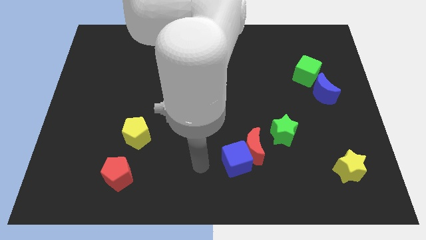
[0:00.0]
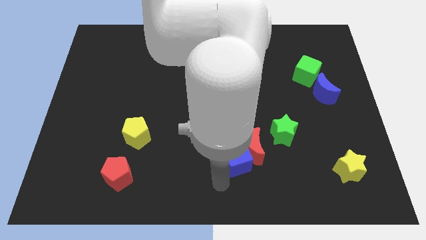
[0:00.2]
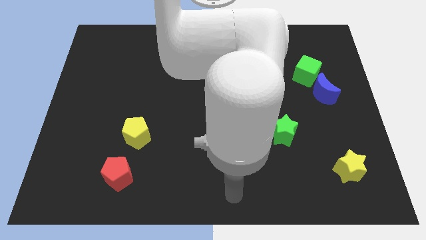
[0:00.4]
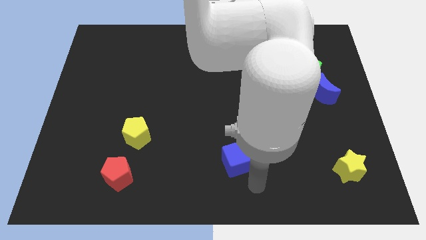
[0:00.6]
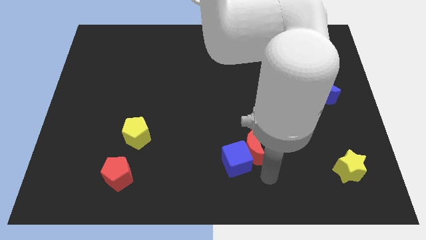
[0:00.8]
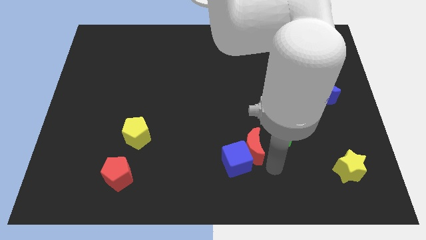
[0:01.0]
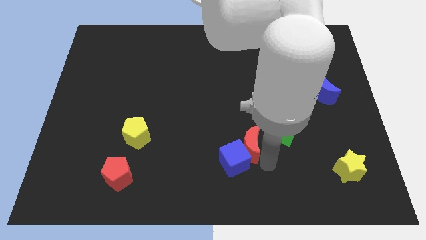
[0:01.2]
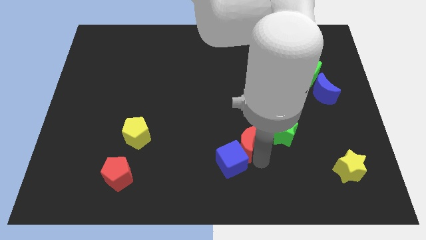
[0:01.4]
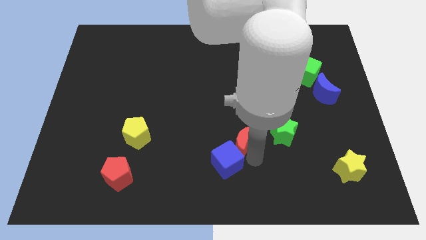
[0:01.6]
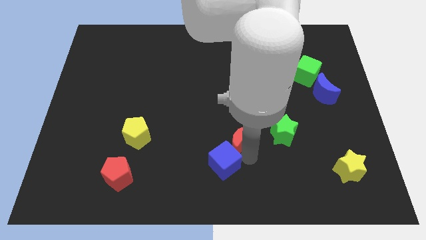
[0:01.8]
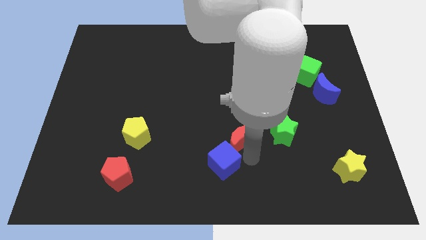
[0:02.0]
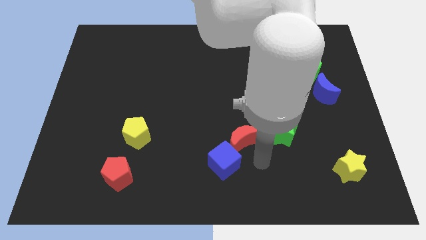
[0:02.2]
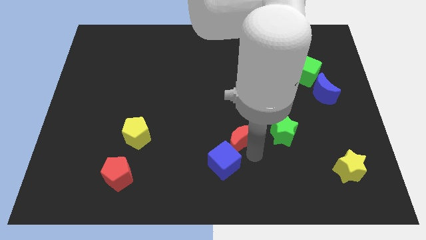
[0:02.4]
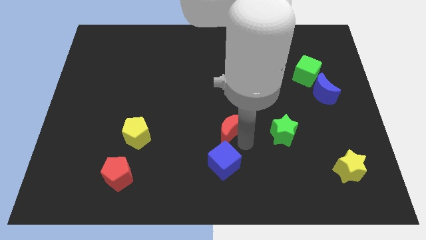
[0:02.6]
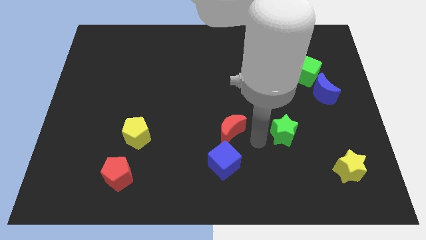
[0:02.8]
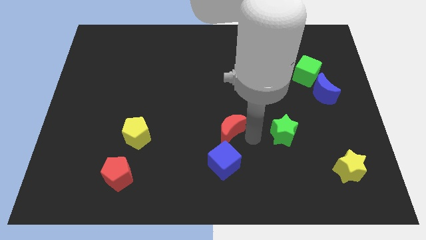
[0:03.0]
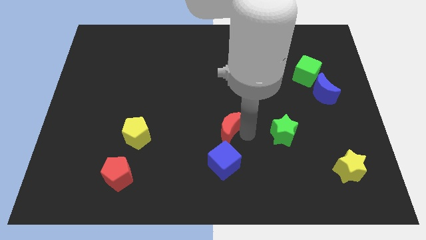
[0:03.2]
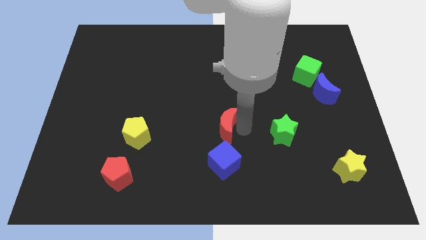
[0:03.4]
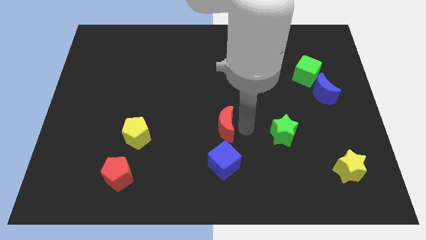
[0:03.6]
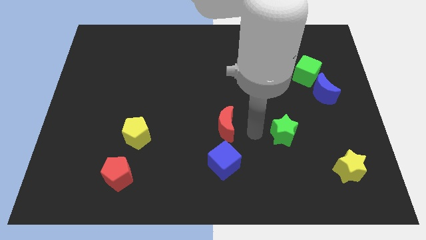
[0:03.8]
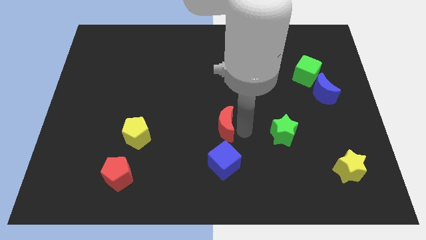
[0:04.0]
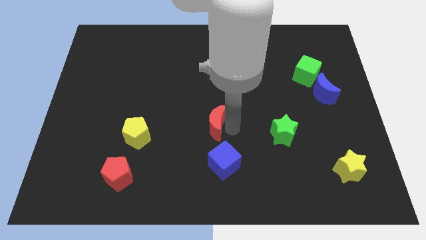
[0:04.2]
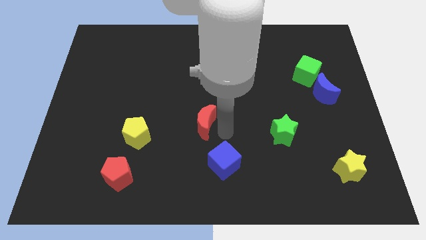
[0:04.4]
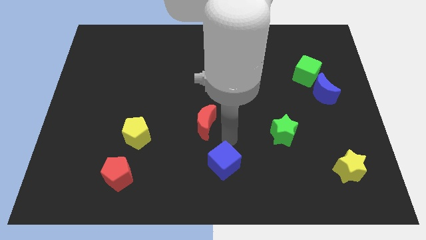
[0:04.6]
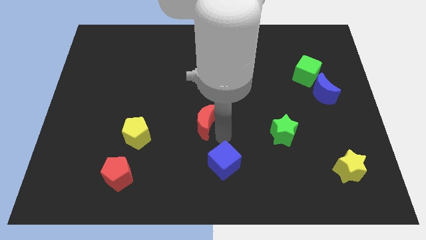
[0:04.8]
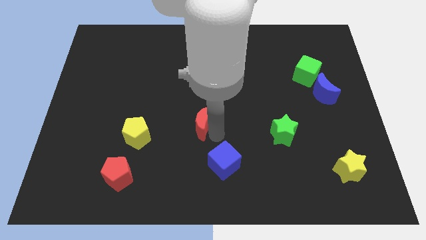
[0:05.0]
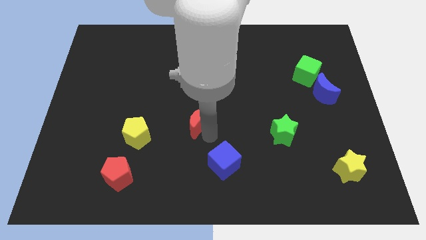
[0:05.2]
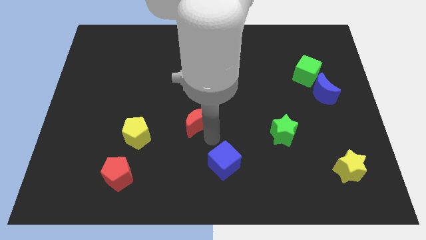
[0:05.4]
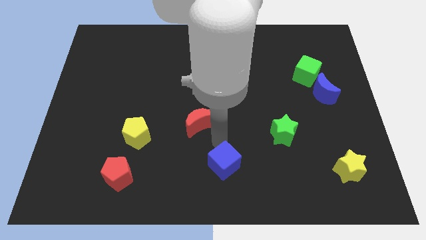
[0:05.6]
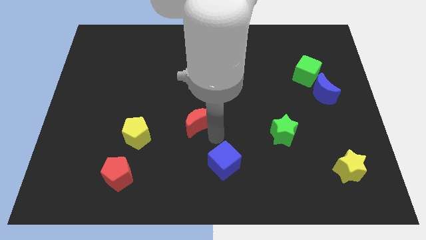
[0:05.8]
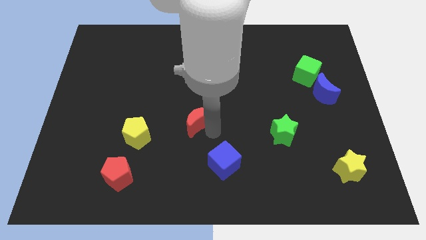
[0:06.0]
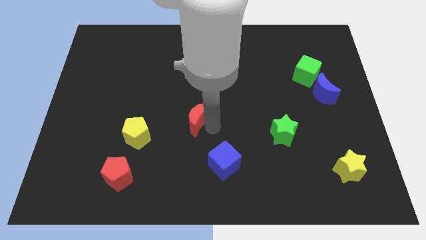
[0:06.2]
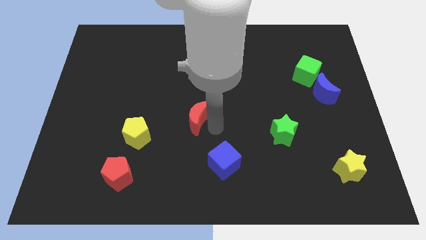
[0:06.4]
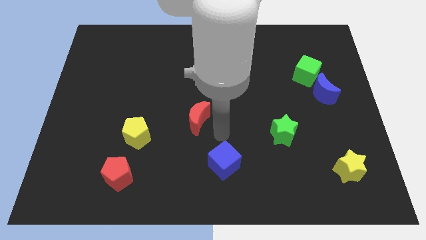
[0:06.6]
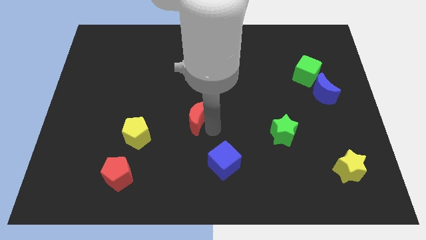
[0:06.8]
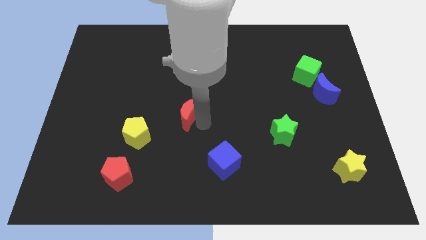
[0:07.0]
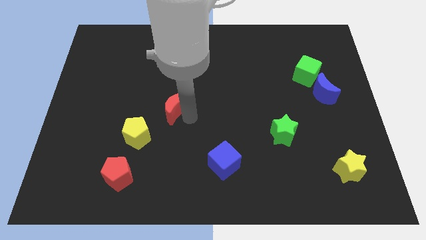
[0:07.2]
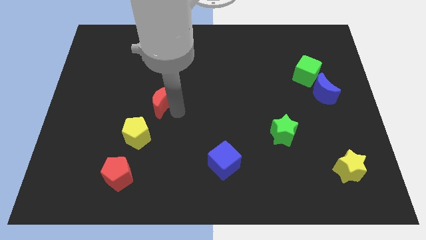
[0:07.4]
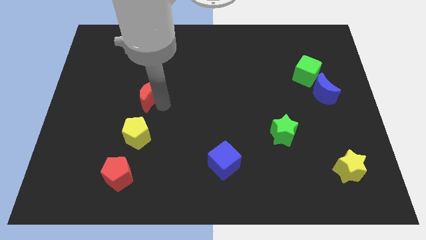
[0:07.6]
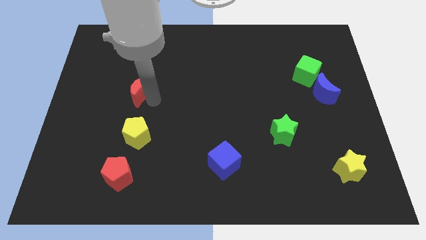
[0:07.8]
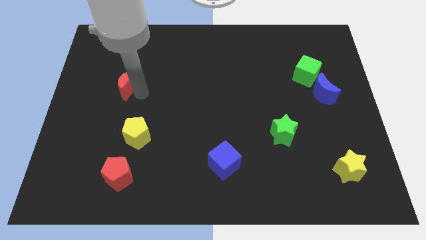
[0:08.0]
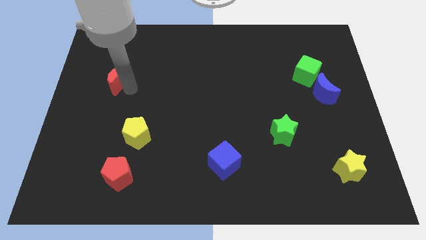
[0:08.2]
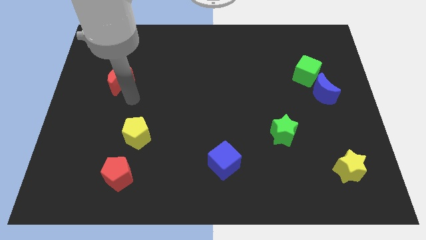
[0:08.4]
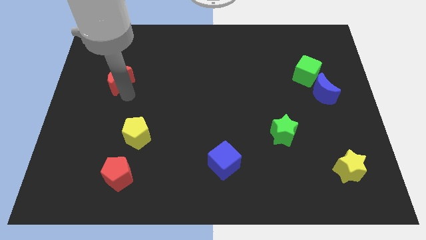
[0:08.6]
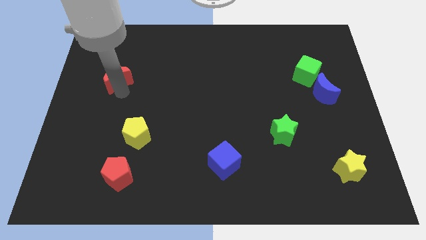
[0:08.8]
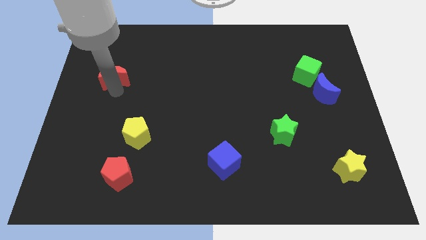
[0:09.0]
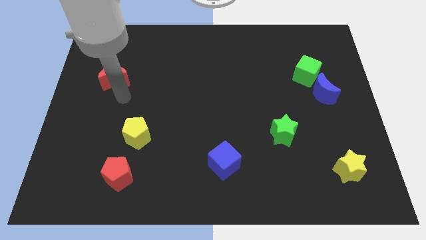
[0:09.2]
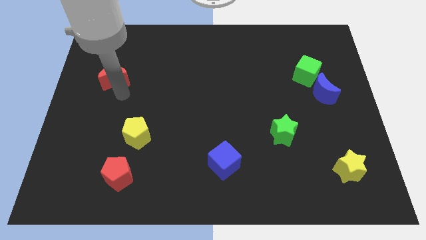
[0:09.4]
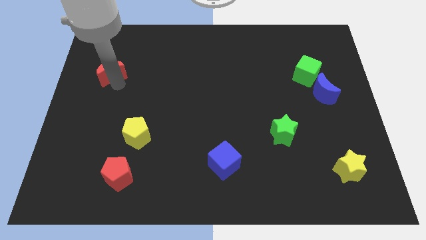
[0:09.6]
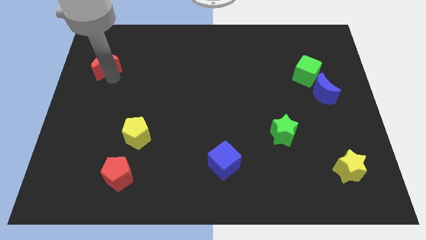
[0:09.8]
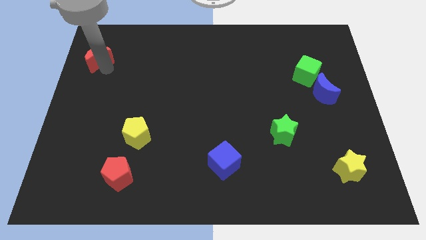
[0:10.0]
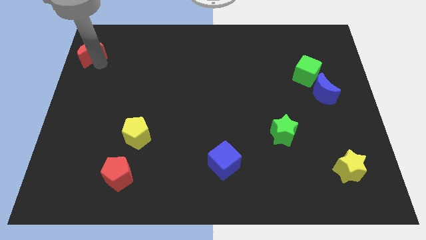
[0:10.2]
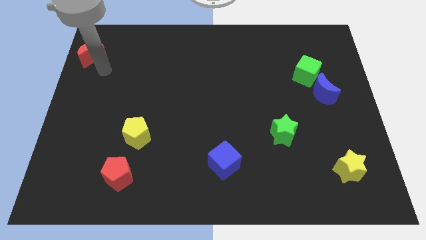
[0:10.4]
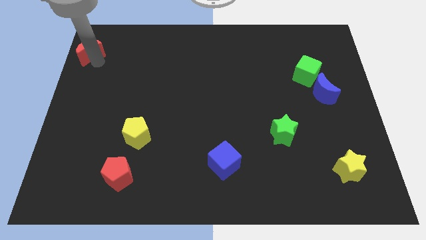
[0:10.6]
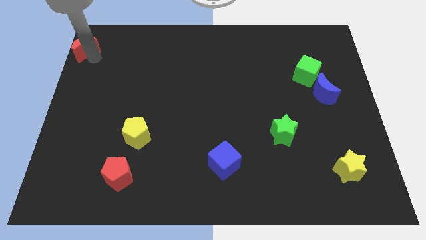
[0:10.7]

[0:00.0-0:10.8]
move the red moon to the upper left corner

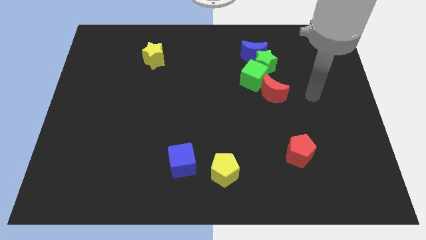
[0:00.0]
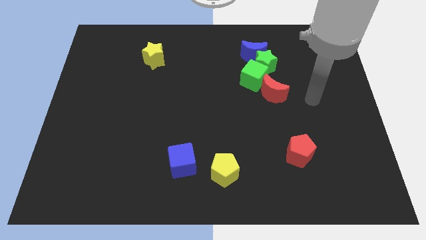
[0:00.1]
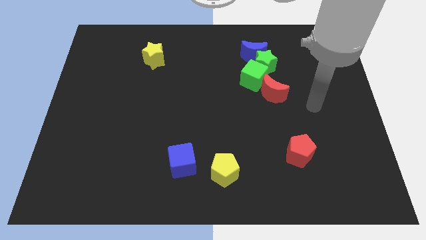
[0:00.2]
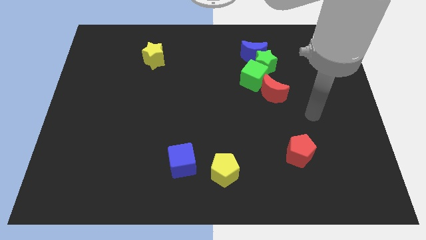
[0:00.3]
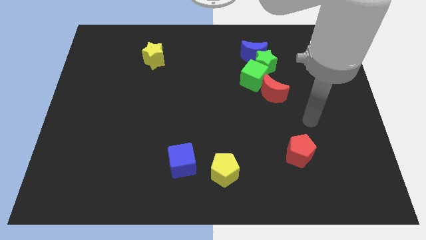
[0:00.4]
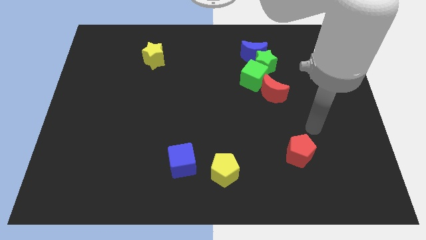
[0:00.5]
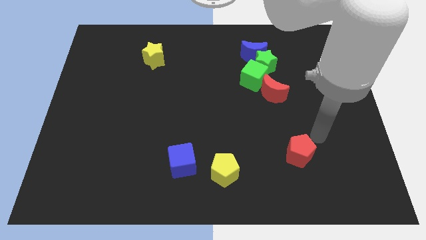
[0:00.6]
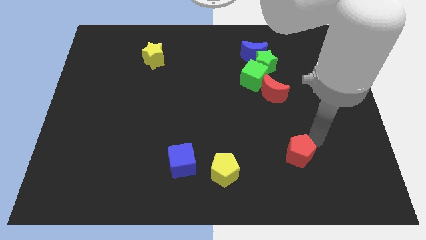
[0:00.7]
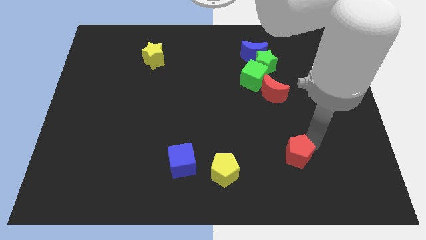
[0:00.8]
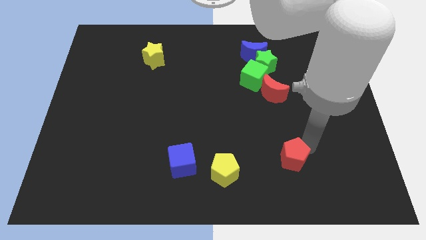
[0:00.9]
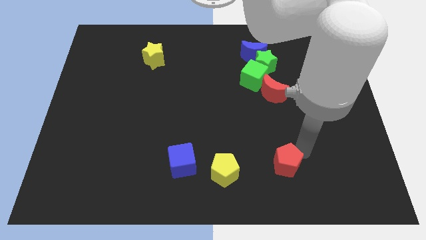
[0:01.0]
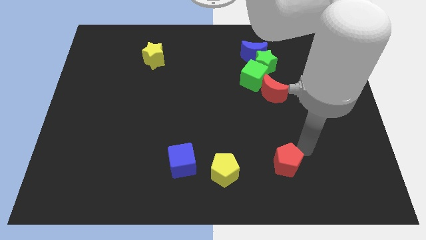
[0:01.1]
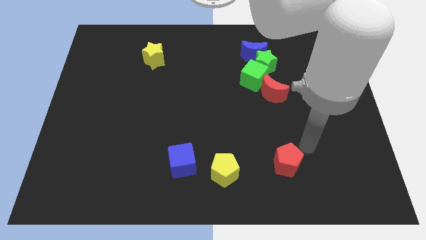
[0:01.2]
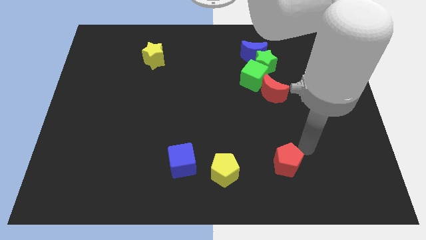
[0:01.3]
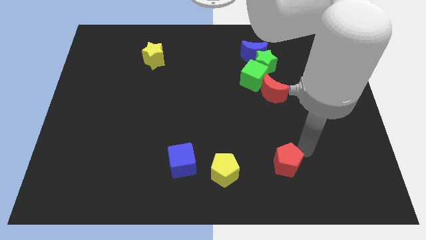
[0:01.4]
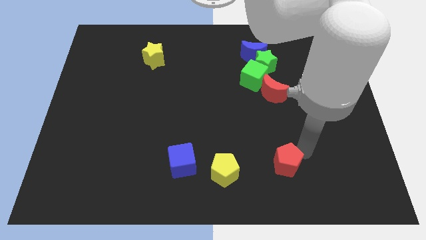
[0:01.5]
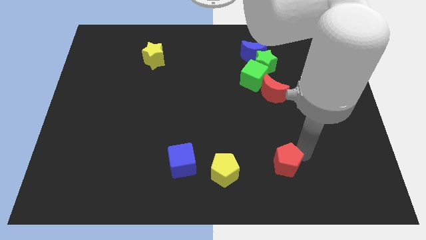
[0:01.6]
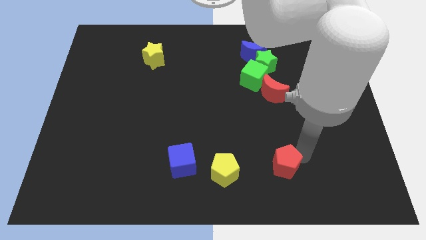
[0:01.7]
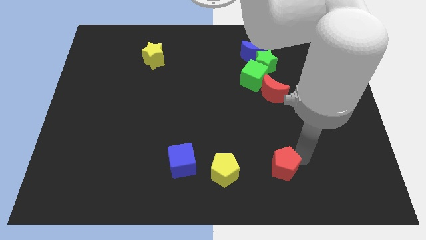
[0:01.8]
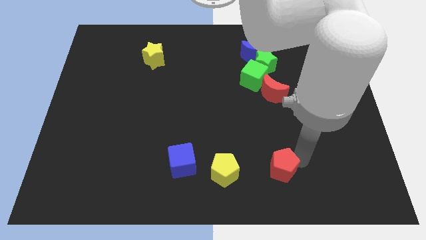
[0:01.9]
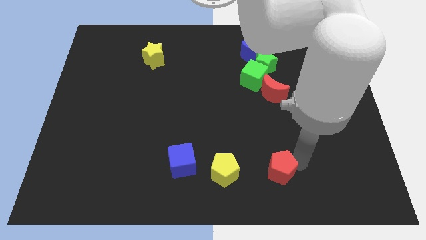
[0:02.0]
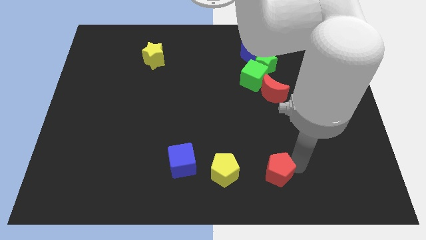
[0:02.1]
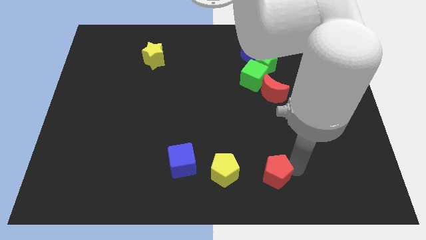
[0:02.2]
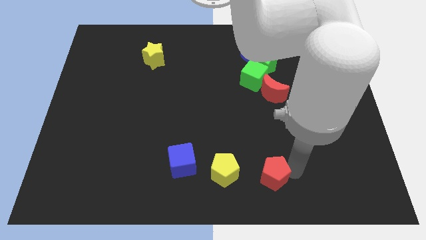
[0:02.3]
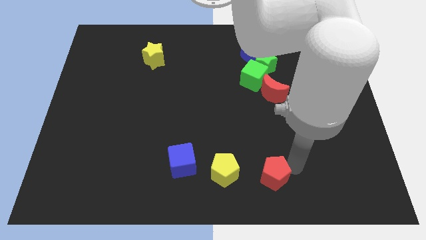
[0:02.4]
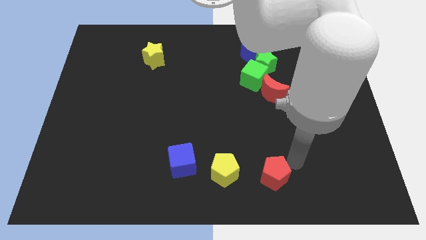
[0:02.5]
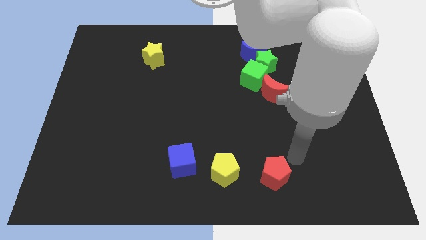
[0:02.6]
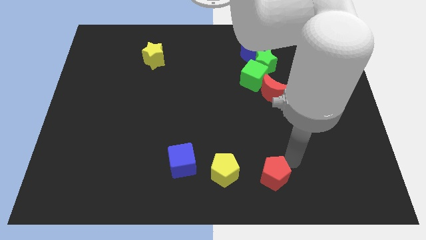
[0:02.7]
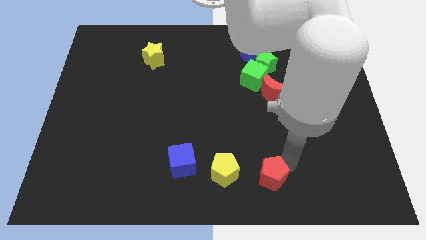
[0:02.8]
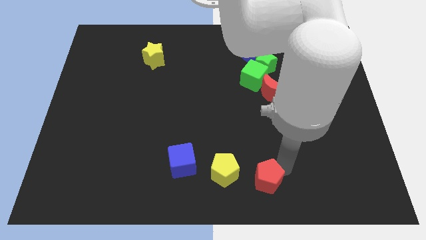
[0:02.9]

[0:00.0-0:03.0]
move the red pentagon to the bottom
